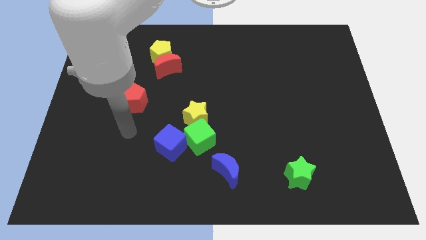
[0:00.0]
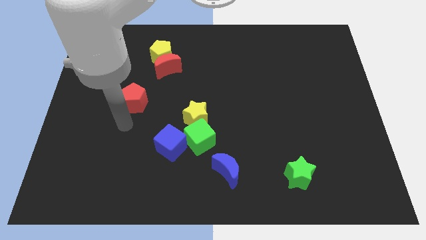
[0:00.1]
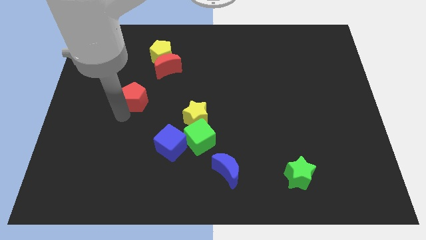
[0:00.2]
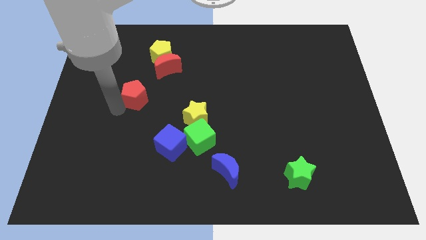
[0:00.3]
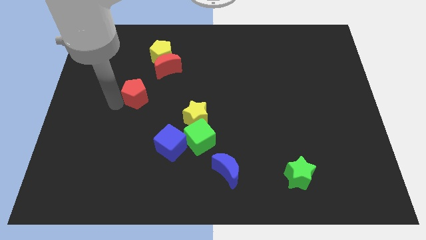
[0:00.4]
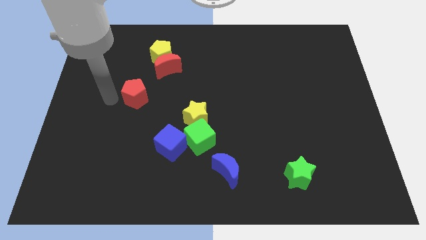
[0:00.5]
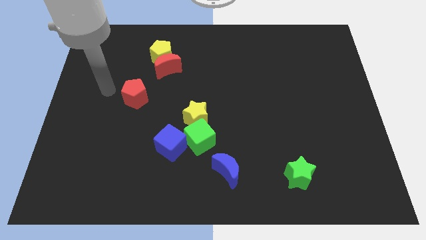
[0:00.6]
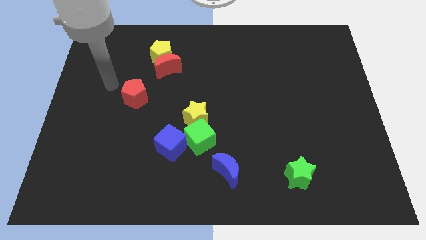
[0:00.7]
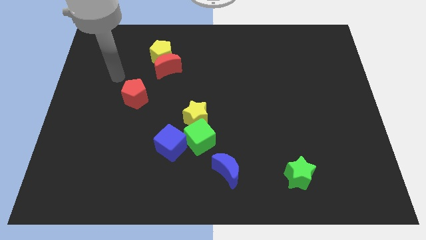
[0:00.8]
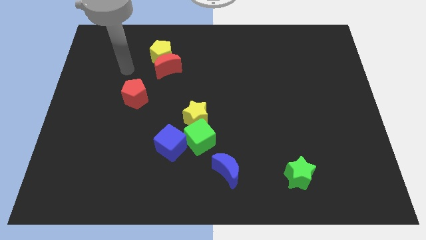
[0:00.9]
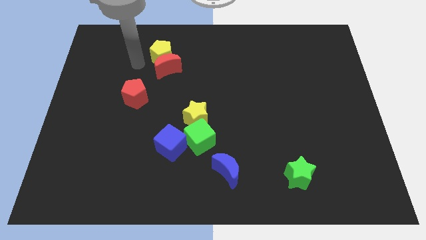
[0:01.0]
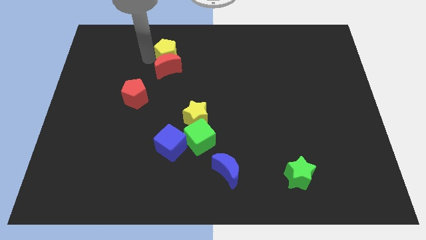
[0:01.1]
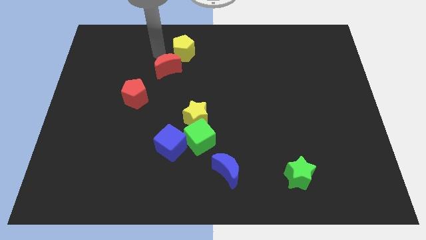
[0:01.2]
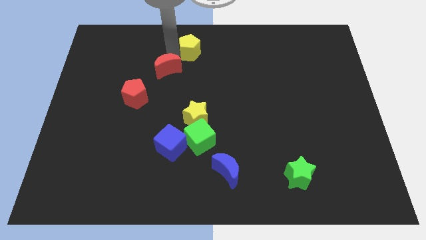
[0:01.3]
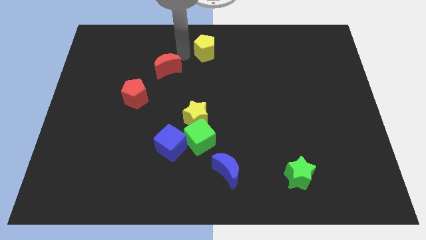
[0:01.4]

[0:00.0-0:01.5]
pull the red moon apart from the yellow pentagon

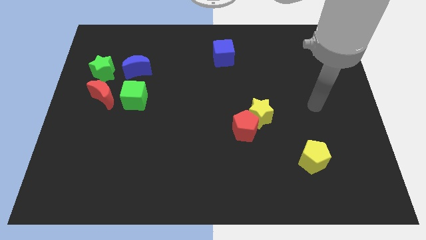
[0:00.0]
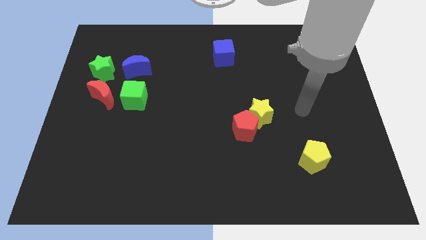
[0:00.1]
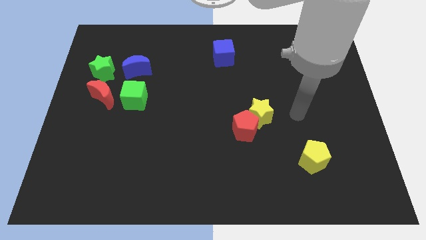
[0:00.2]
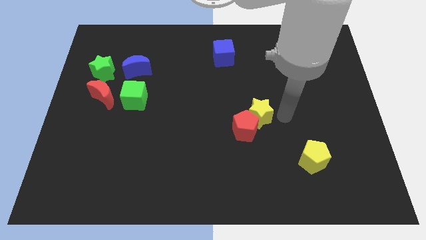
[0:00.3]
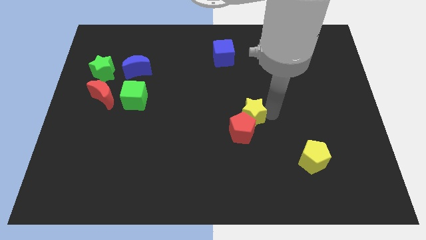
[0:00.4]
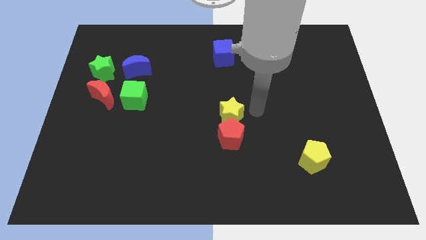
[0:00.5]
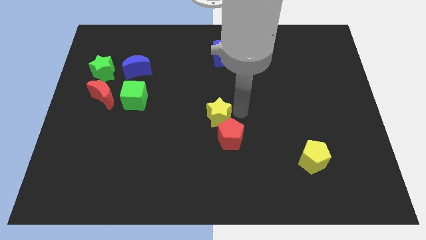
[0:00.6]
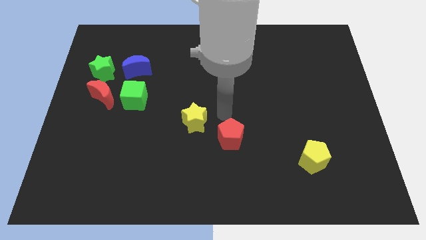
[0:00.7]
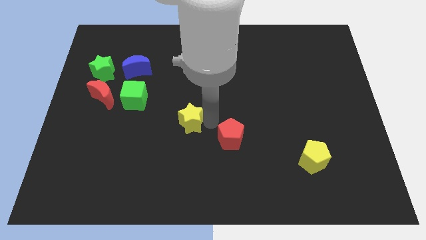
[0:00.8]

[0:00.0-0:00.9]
separate the red pentagon from the yellow star

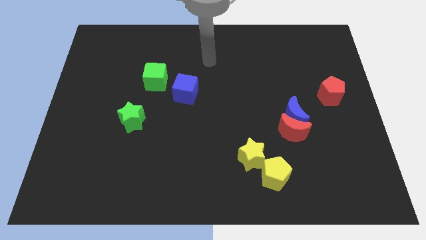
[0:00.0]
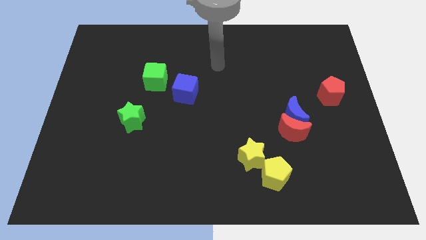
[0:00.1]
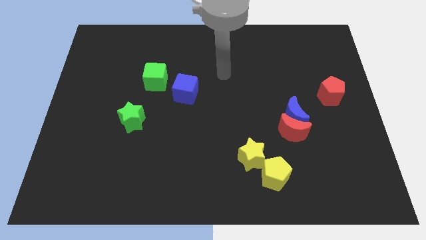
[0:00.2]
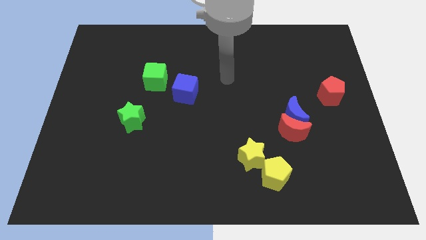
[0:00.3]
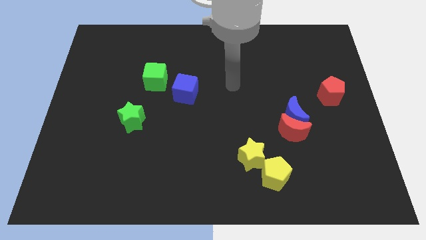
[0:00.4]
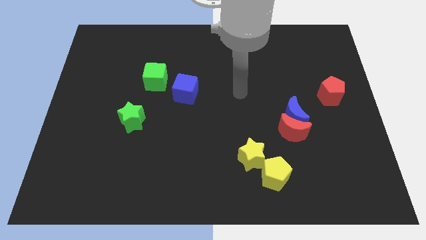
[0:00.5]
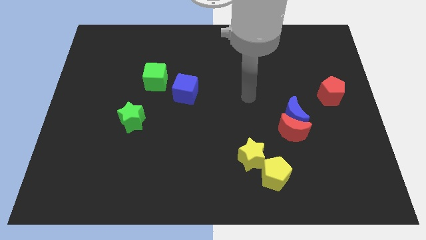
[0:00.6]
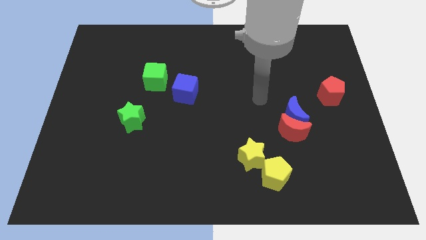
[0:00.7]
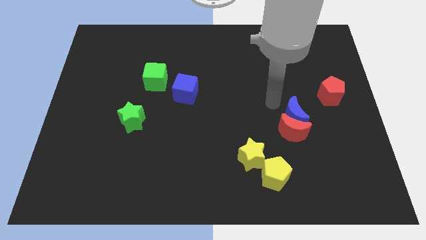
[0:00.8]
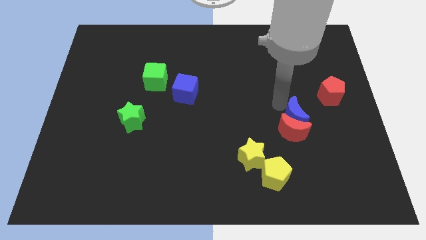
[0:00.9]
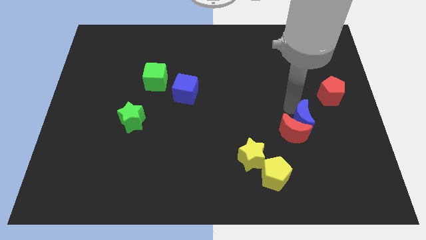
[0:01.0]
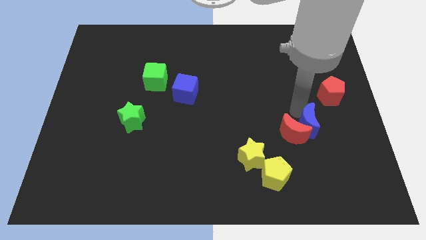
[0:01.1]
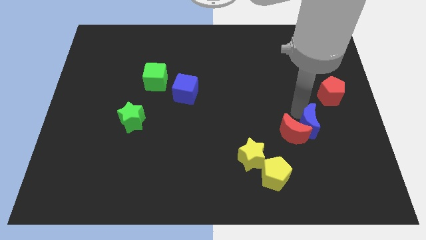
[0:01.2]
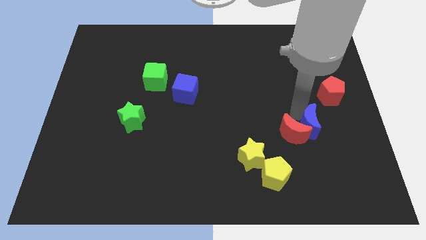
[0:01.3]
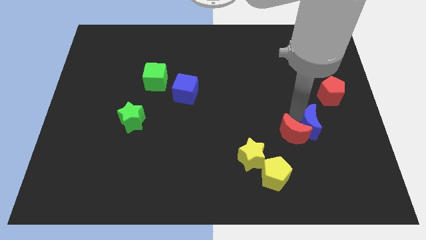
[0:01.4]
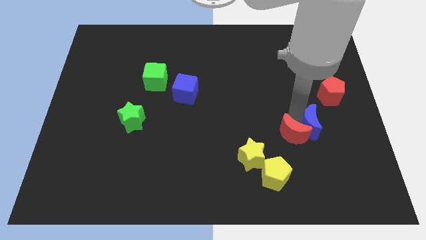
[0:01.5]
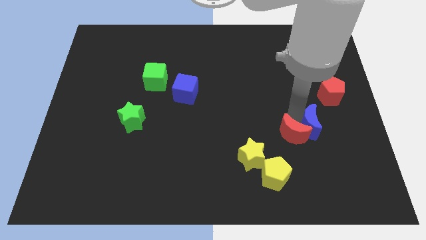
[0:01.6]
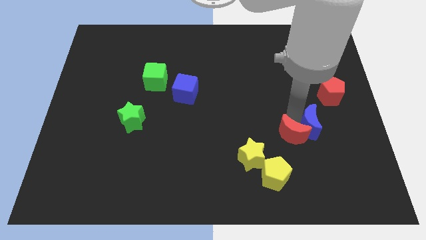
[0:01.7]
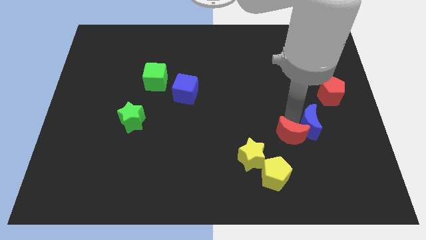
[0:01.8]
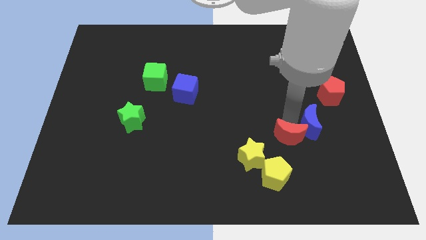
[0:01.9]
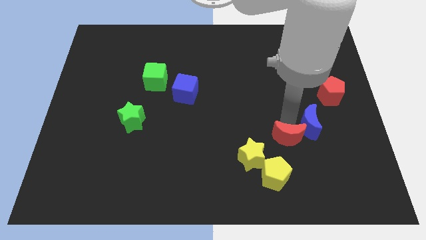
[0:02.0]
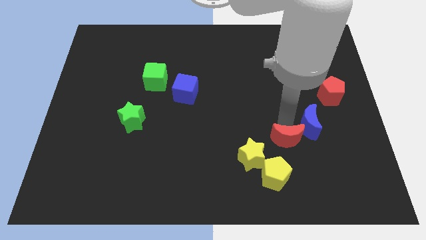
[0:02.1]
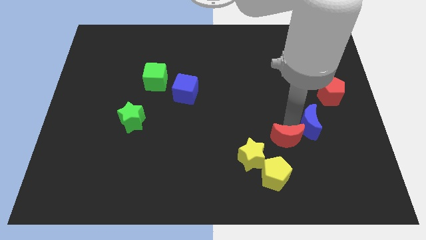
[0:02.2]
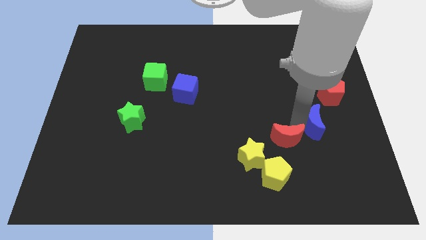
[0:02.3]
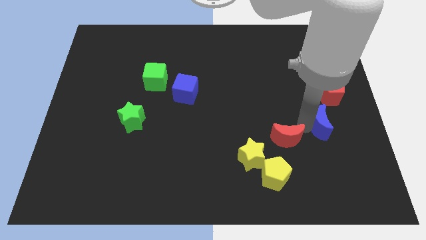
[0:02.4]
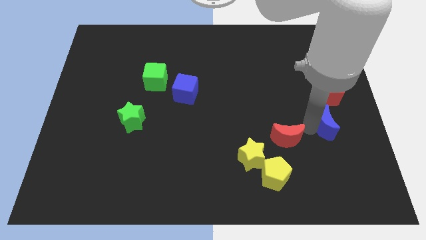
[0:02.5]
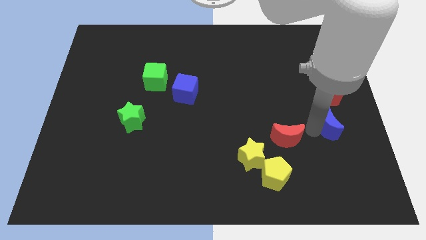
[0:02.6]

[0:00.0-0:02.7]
separate the red moon from the blue moon

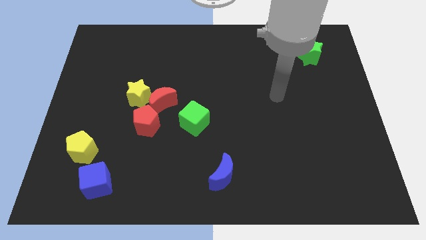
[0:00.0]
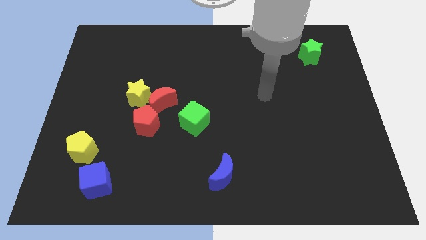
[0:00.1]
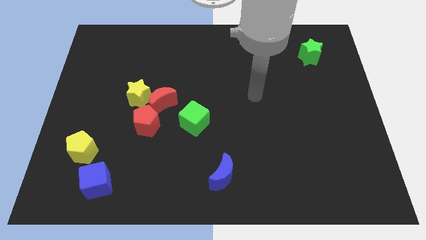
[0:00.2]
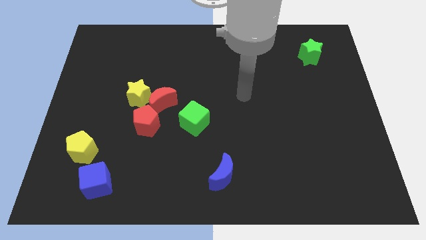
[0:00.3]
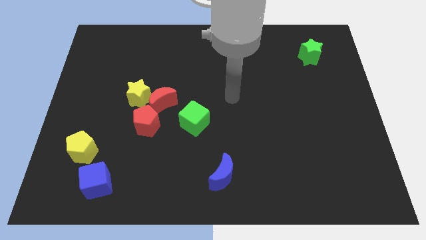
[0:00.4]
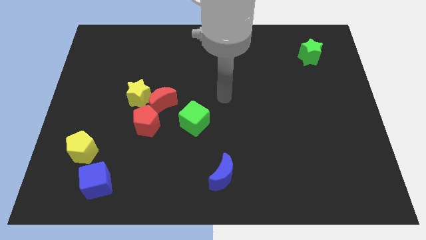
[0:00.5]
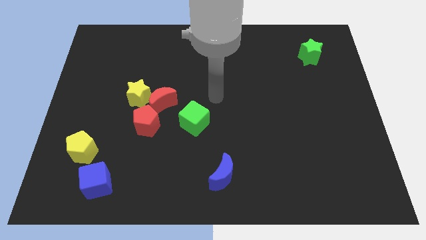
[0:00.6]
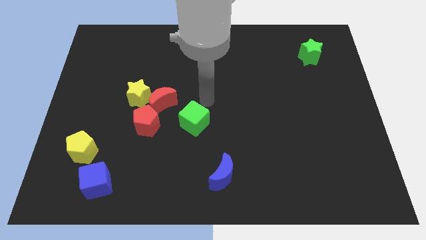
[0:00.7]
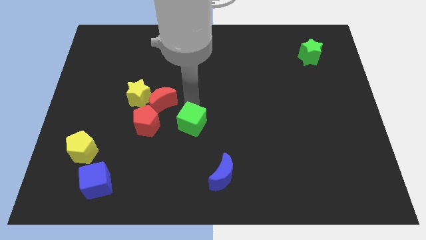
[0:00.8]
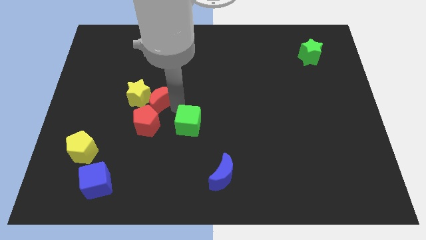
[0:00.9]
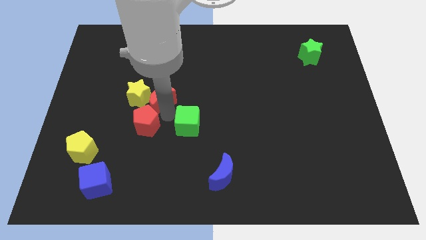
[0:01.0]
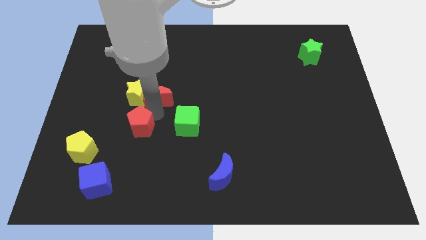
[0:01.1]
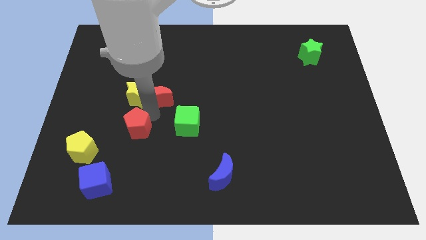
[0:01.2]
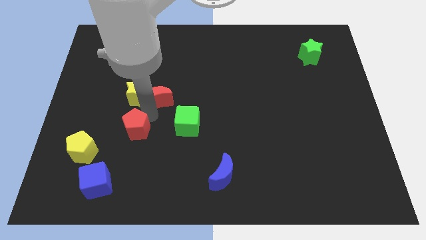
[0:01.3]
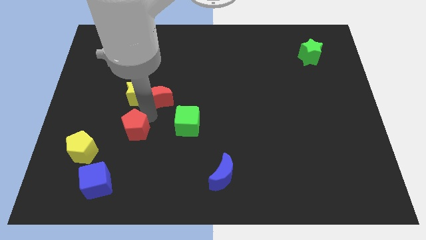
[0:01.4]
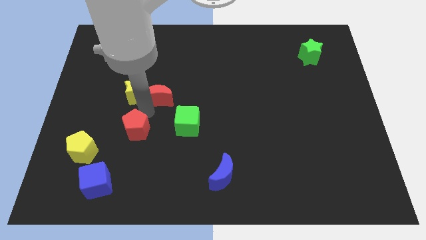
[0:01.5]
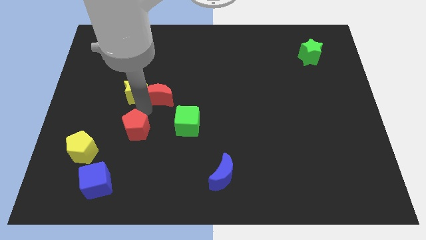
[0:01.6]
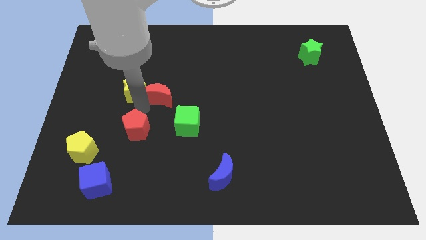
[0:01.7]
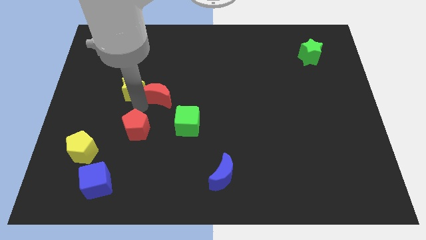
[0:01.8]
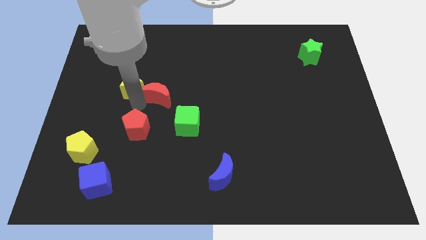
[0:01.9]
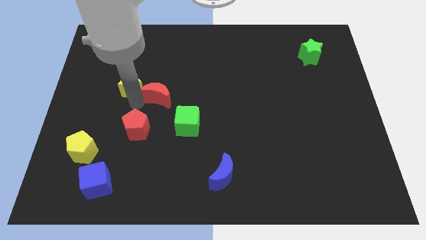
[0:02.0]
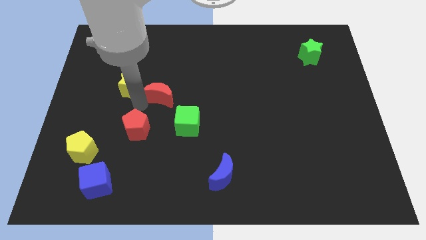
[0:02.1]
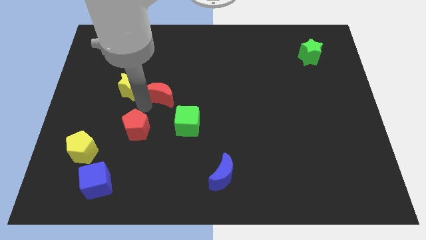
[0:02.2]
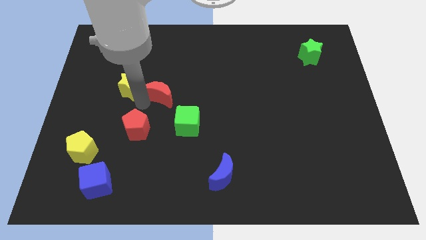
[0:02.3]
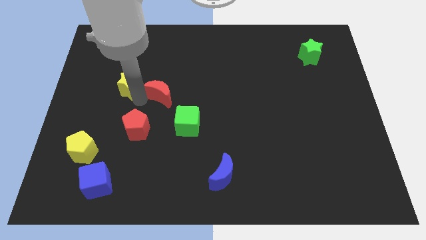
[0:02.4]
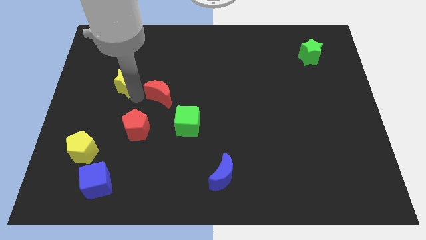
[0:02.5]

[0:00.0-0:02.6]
pull the yellow star apart from the red moon and red pentagon

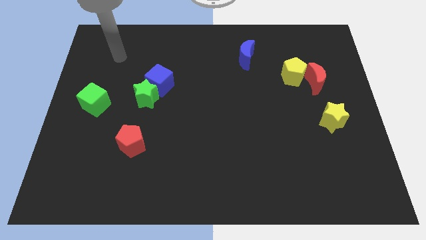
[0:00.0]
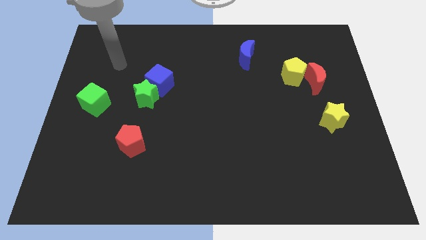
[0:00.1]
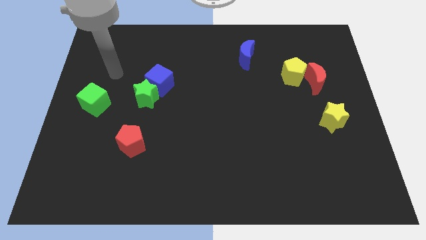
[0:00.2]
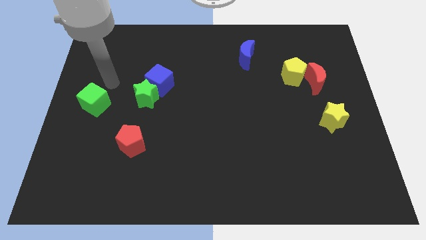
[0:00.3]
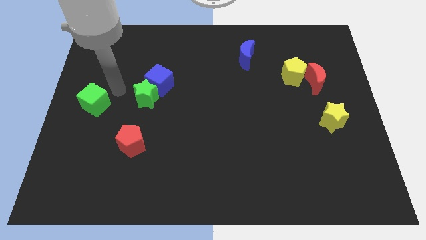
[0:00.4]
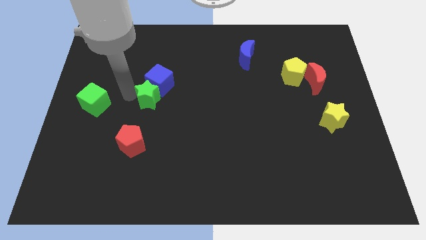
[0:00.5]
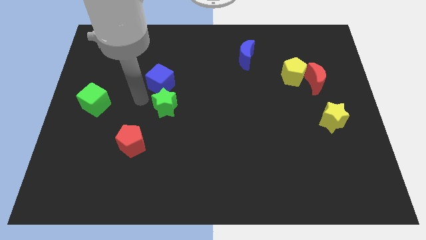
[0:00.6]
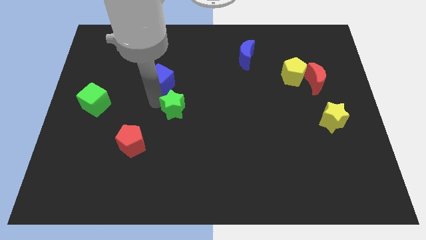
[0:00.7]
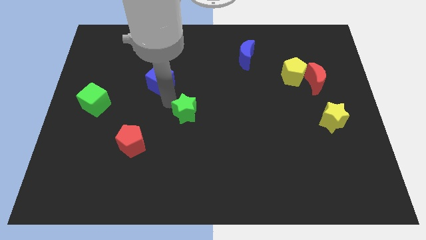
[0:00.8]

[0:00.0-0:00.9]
move the blue cube away from the green star

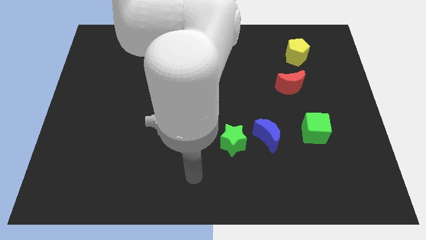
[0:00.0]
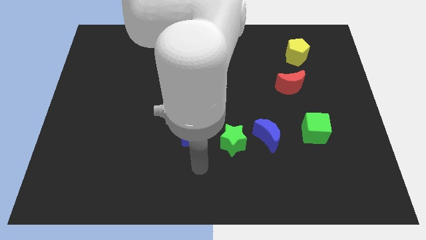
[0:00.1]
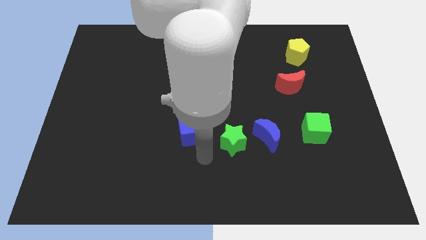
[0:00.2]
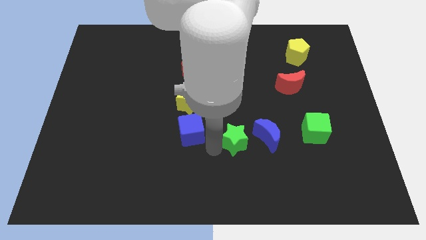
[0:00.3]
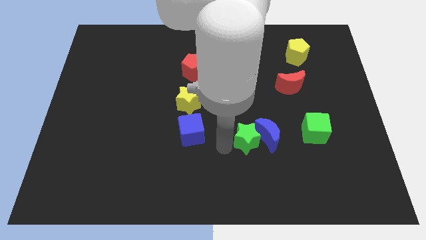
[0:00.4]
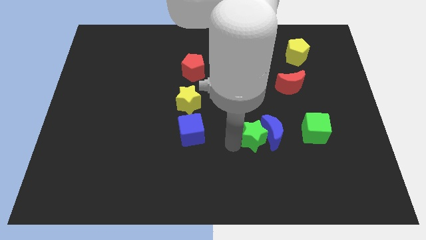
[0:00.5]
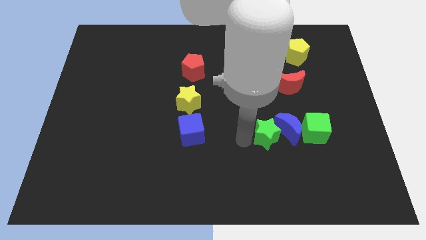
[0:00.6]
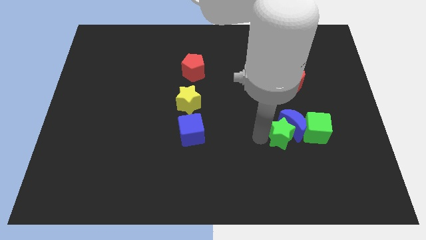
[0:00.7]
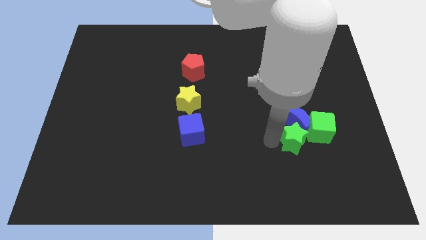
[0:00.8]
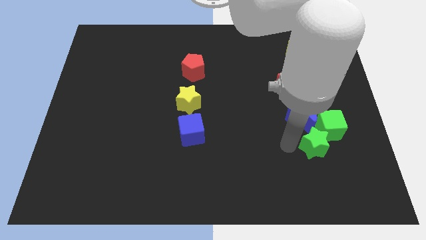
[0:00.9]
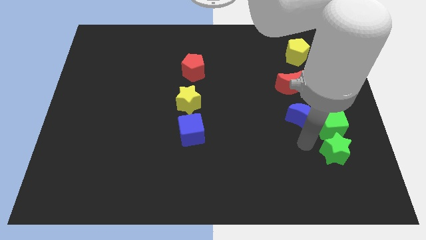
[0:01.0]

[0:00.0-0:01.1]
move the blue moon away from the green star
